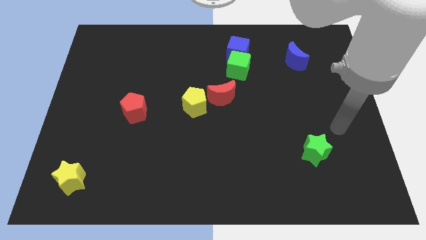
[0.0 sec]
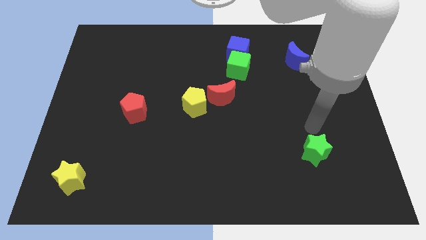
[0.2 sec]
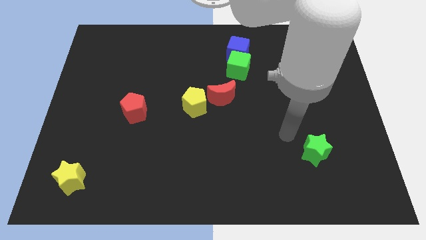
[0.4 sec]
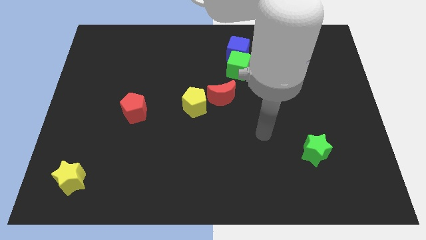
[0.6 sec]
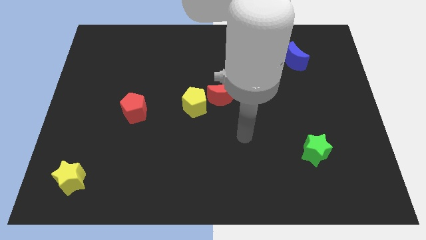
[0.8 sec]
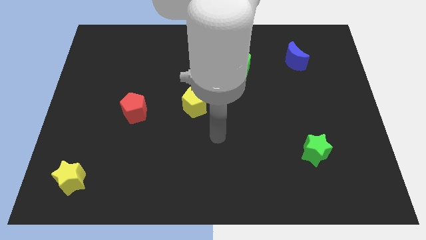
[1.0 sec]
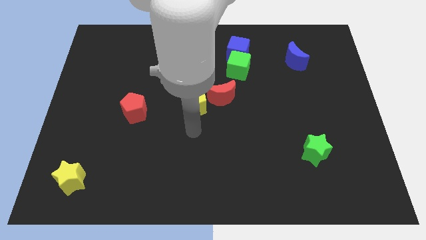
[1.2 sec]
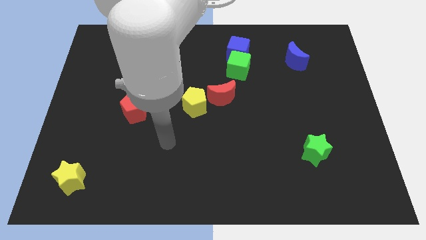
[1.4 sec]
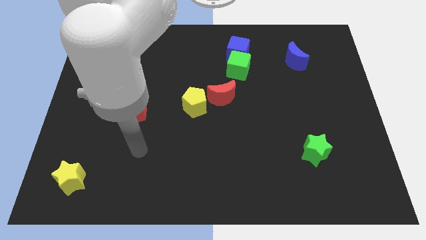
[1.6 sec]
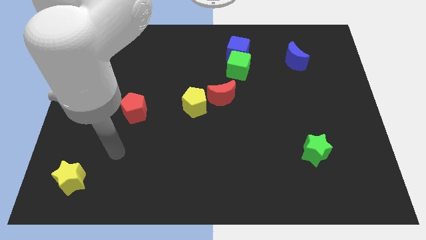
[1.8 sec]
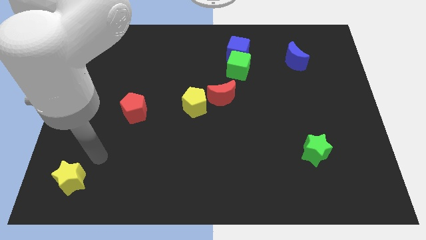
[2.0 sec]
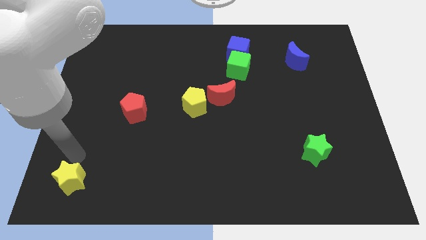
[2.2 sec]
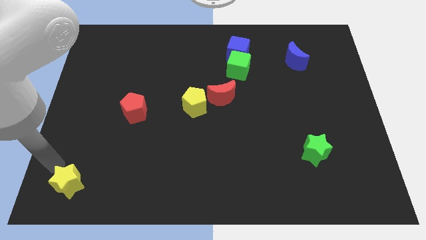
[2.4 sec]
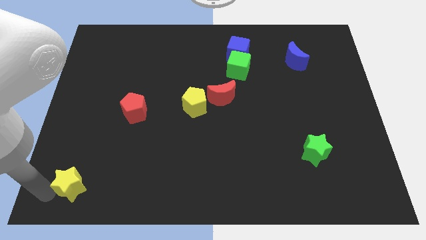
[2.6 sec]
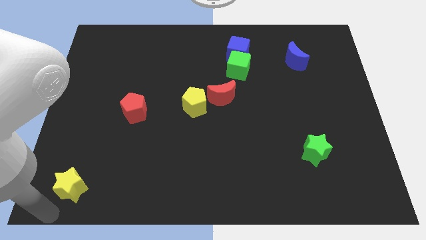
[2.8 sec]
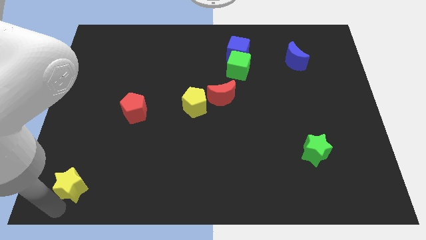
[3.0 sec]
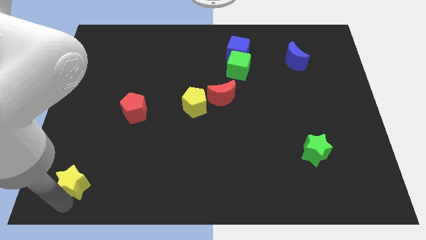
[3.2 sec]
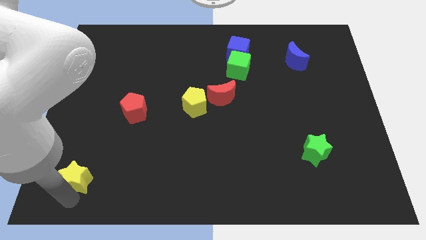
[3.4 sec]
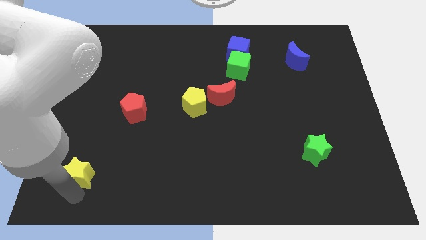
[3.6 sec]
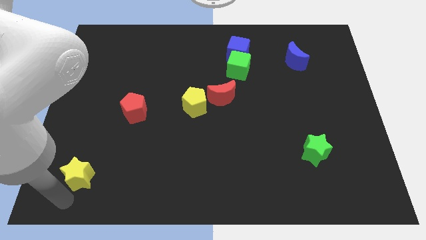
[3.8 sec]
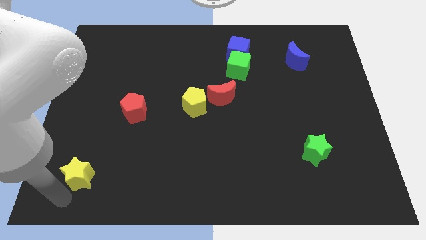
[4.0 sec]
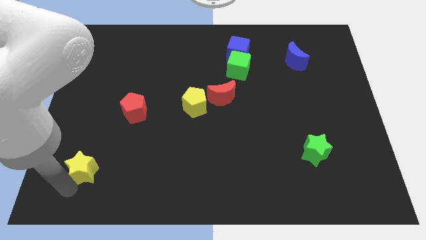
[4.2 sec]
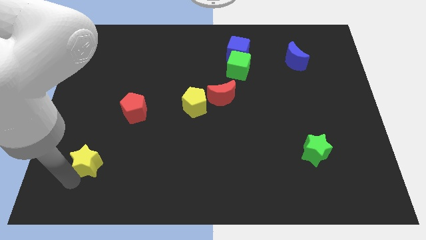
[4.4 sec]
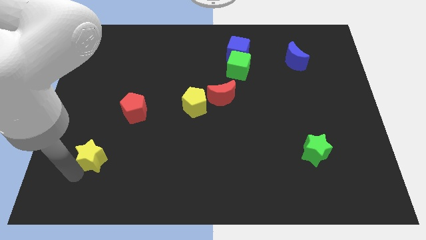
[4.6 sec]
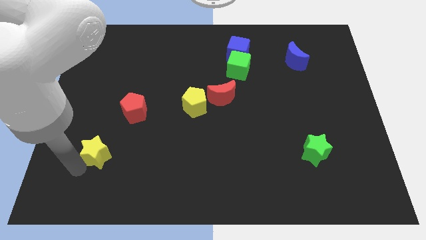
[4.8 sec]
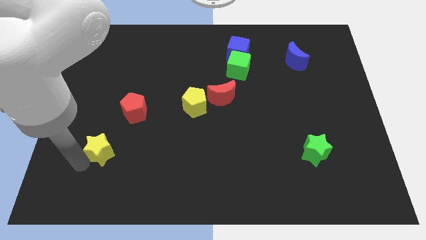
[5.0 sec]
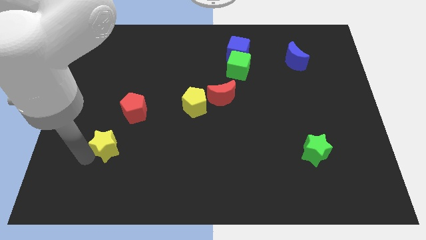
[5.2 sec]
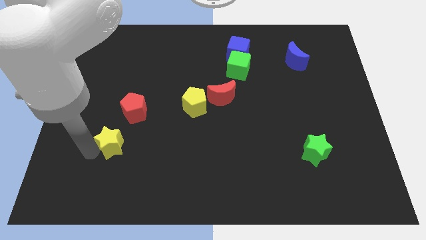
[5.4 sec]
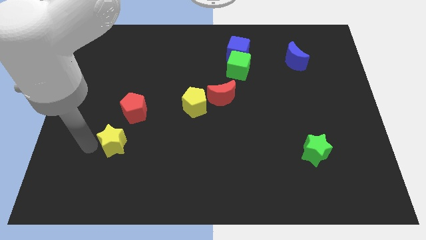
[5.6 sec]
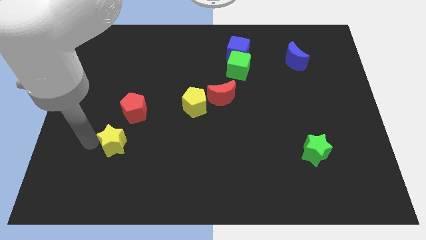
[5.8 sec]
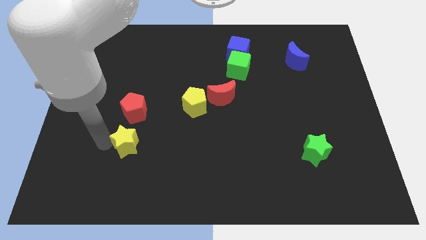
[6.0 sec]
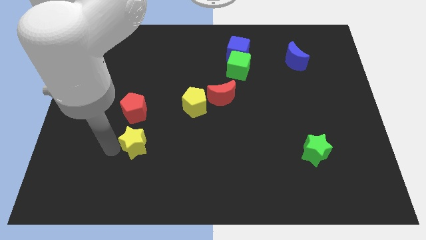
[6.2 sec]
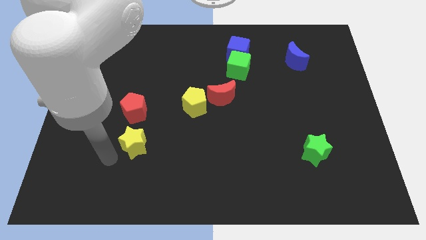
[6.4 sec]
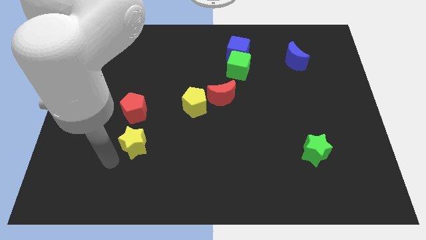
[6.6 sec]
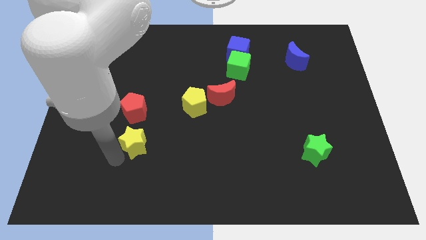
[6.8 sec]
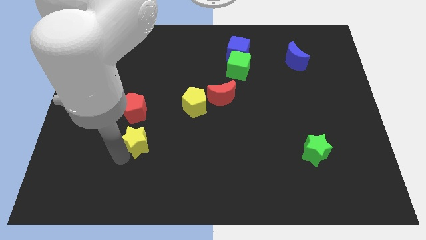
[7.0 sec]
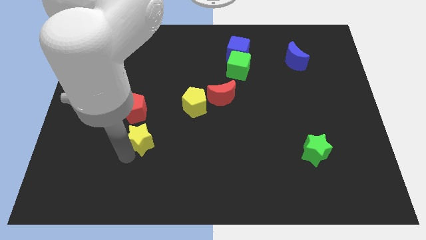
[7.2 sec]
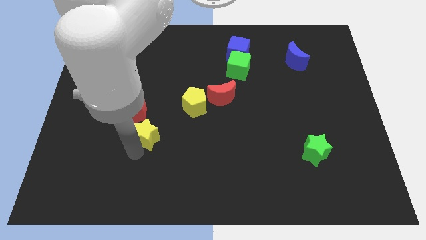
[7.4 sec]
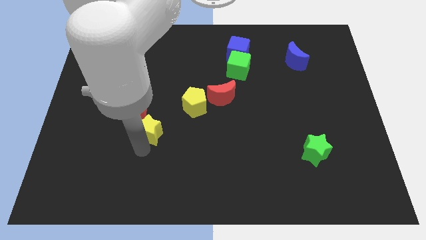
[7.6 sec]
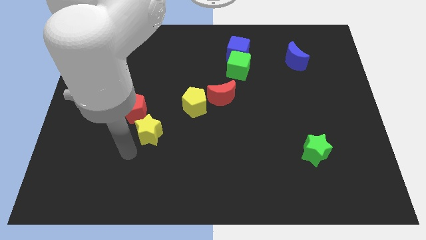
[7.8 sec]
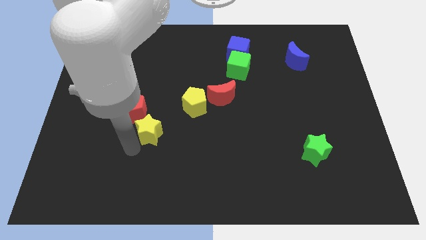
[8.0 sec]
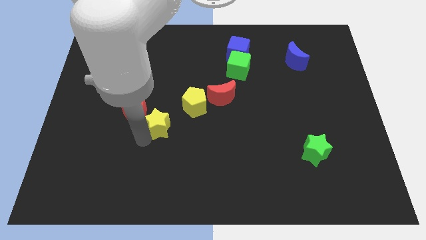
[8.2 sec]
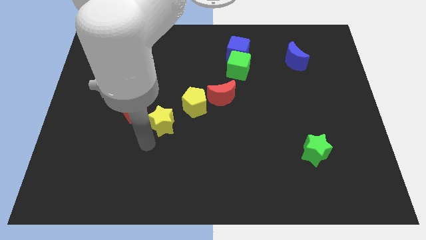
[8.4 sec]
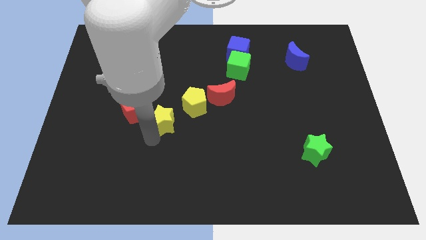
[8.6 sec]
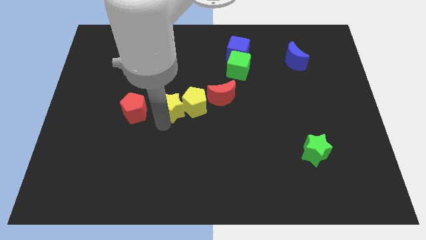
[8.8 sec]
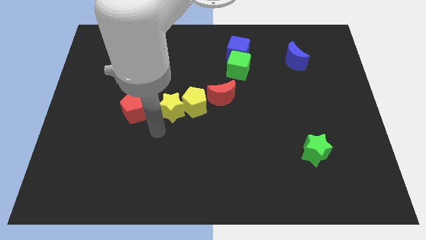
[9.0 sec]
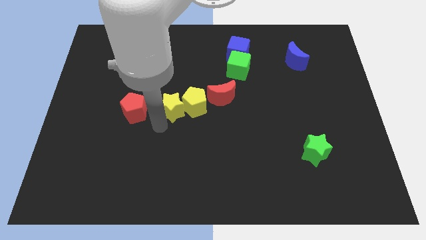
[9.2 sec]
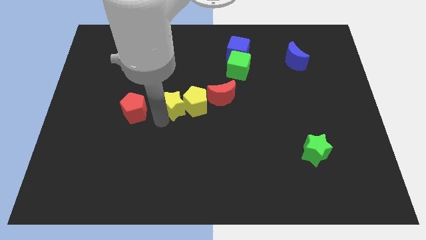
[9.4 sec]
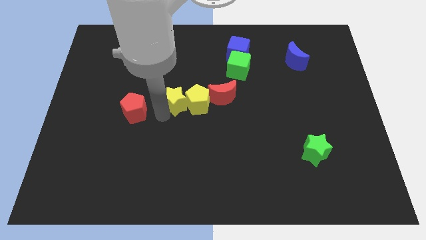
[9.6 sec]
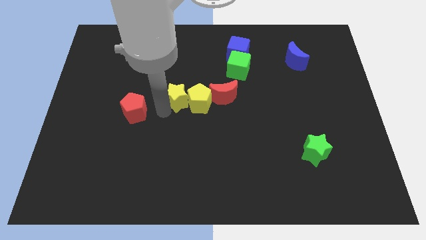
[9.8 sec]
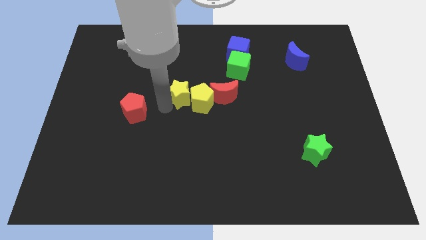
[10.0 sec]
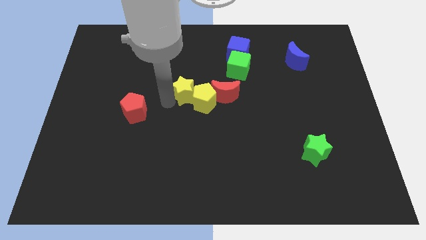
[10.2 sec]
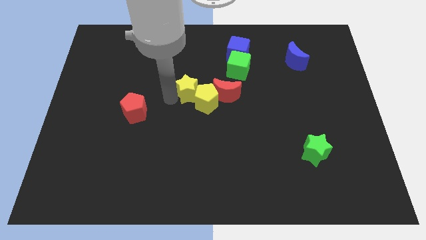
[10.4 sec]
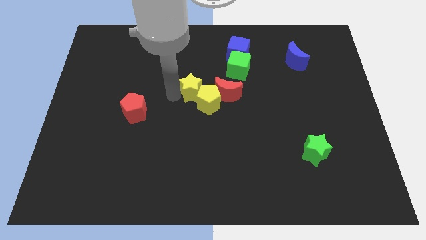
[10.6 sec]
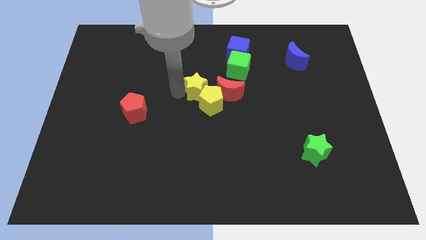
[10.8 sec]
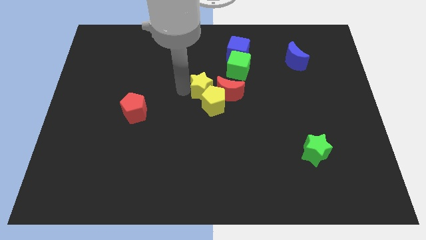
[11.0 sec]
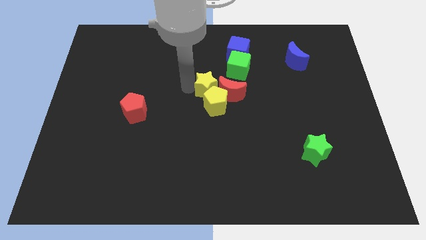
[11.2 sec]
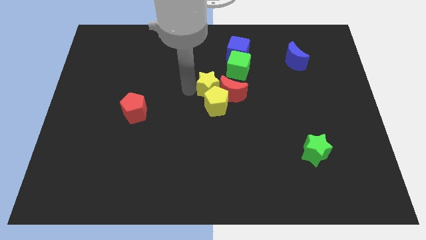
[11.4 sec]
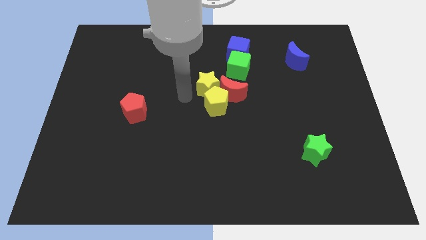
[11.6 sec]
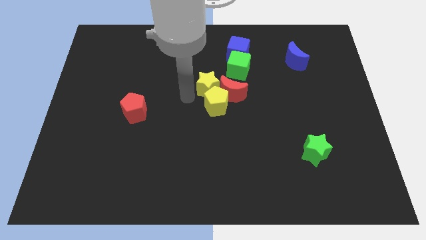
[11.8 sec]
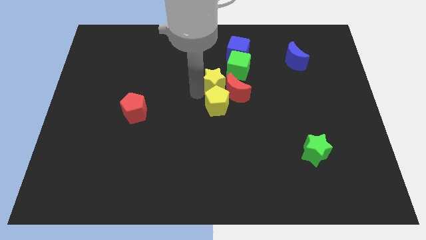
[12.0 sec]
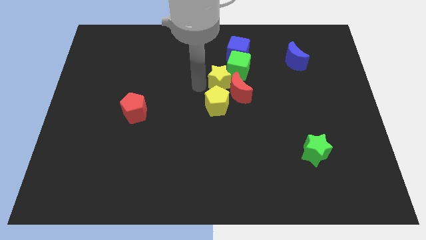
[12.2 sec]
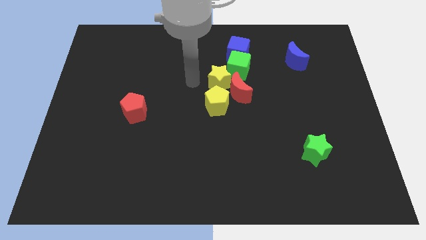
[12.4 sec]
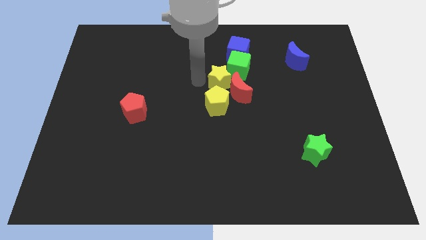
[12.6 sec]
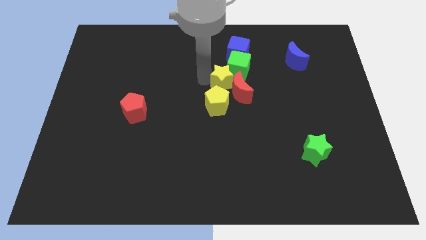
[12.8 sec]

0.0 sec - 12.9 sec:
push the yellow star to the bottom of the blue cube

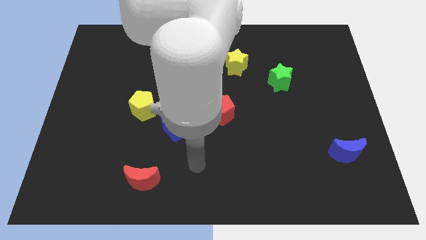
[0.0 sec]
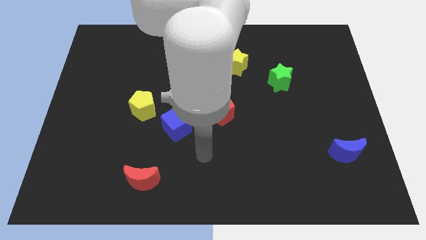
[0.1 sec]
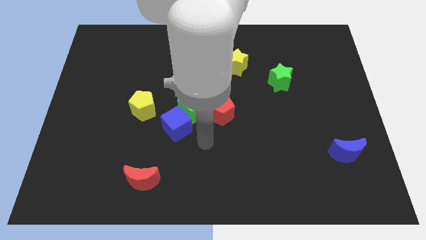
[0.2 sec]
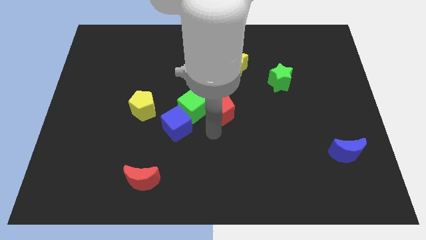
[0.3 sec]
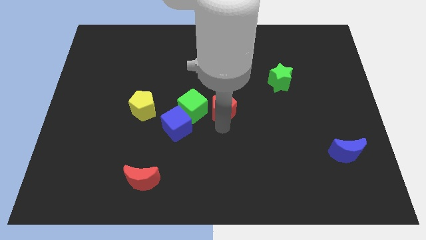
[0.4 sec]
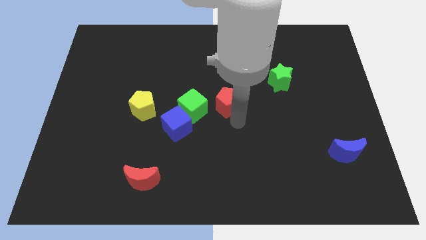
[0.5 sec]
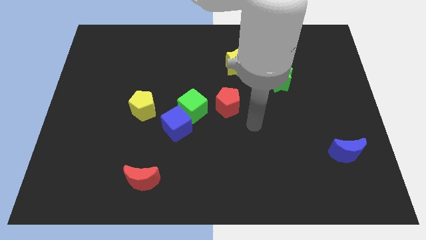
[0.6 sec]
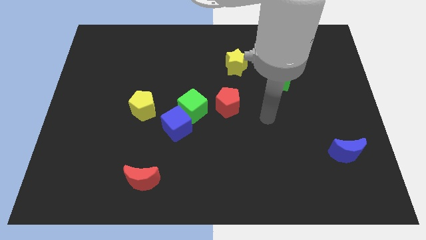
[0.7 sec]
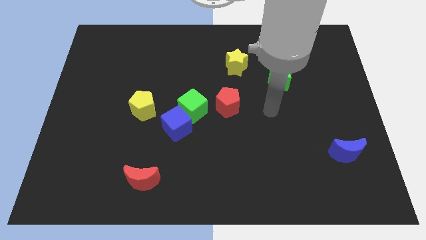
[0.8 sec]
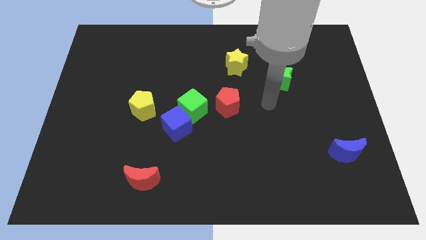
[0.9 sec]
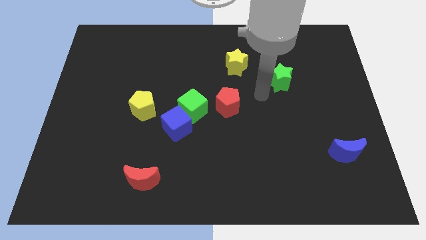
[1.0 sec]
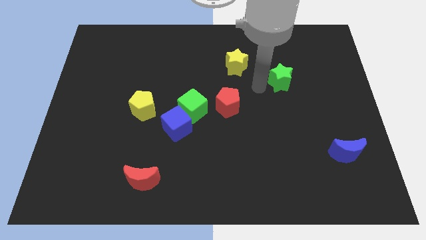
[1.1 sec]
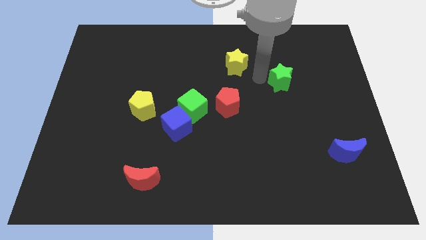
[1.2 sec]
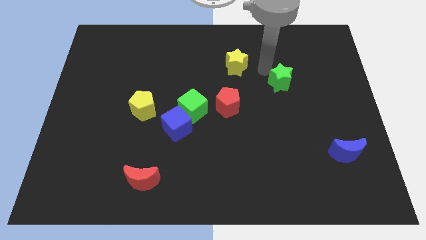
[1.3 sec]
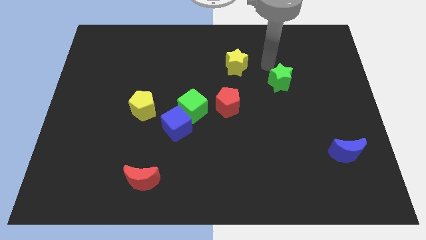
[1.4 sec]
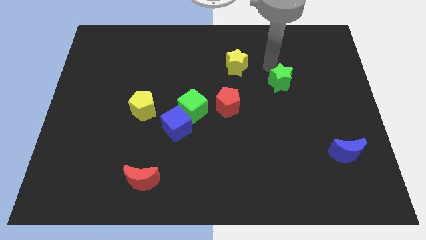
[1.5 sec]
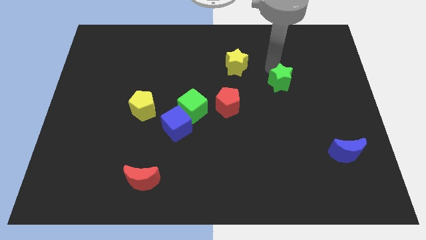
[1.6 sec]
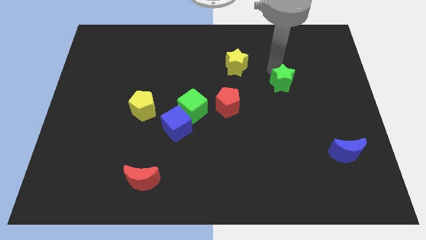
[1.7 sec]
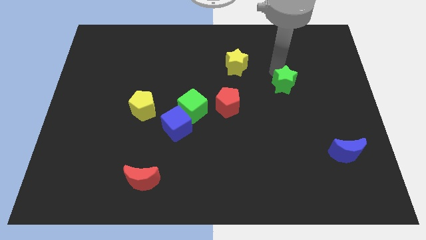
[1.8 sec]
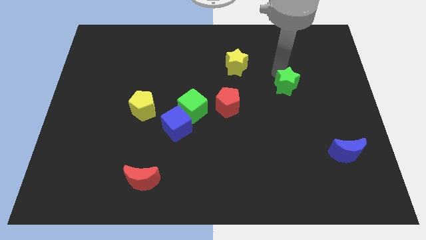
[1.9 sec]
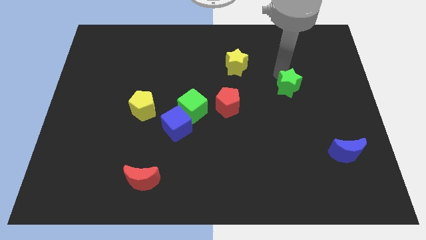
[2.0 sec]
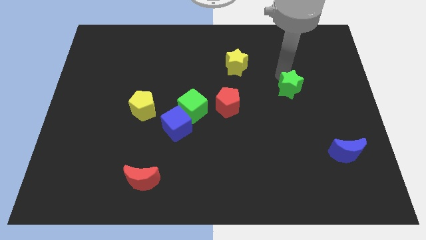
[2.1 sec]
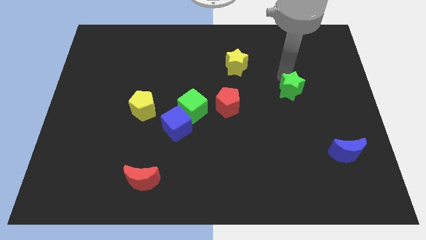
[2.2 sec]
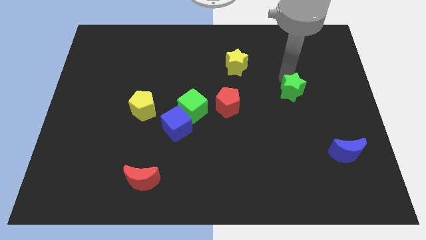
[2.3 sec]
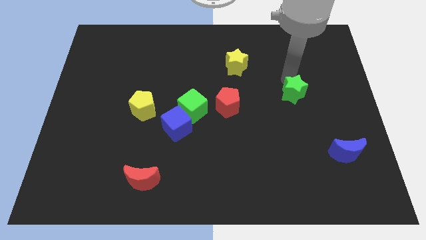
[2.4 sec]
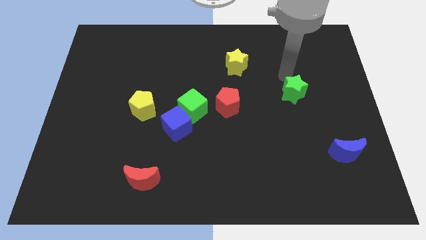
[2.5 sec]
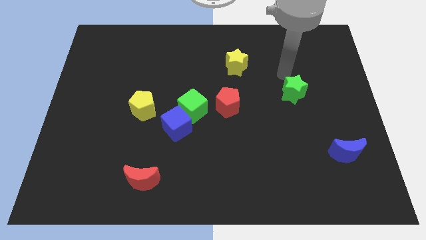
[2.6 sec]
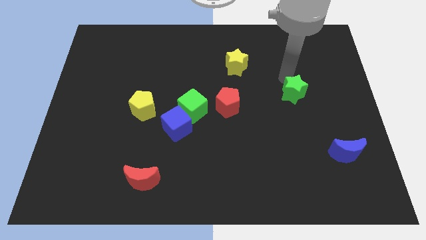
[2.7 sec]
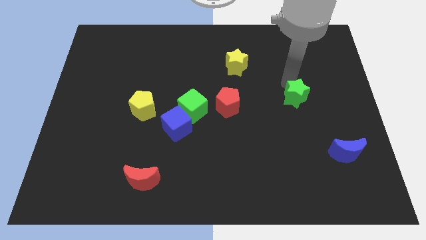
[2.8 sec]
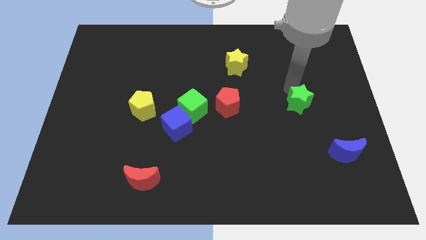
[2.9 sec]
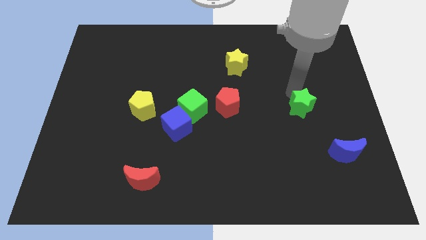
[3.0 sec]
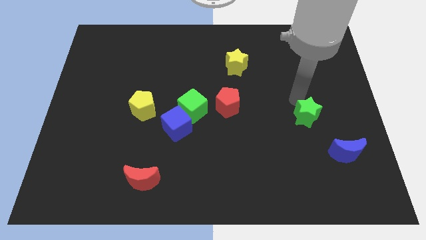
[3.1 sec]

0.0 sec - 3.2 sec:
slide the green star to the top left of the blue moon
